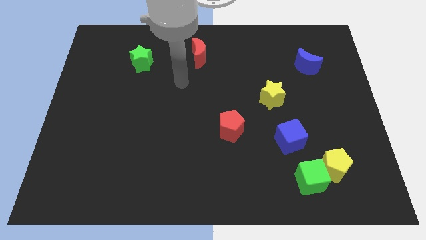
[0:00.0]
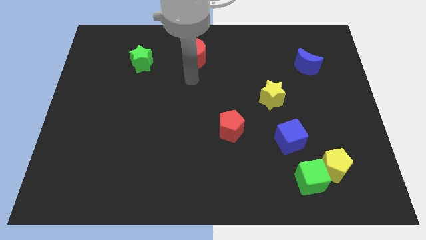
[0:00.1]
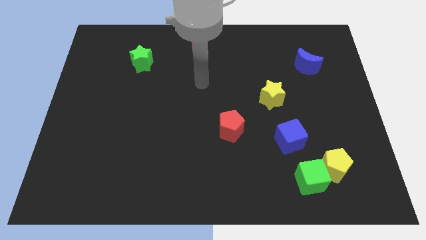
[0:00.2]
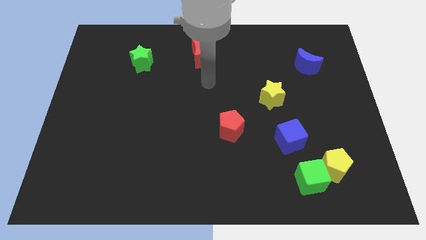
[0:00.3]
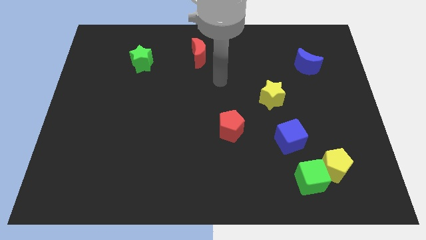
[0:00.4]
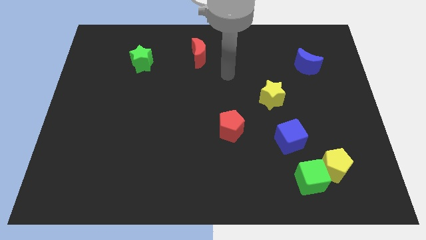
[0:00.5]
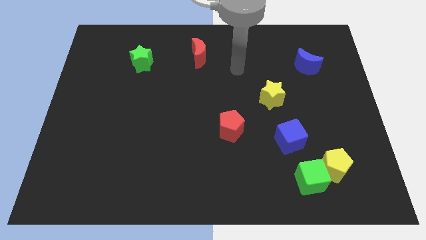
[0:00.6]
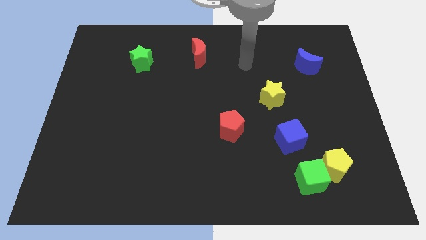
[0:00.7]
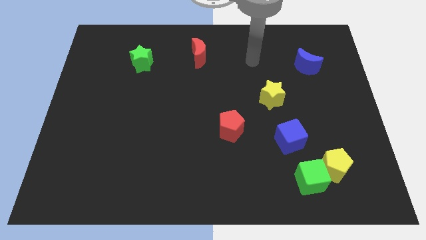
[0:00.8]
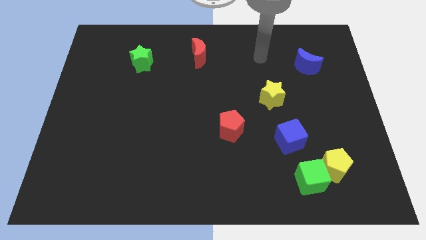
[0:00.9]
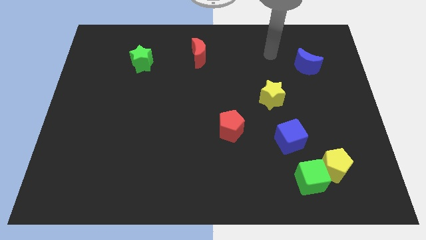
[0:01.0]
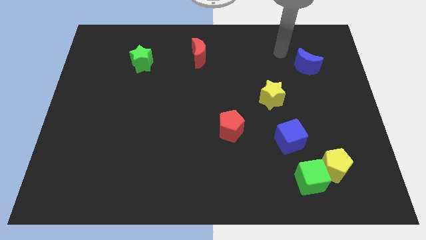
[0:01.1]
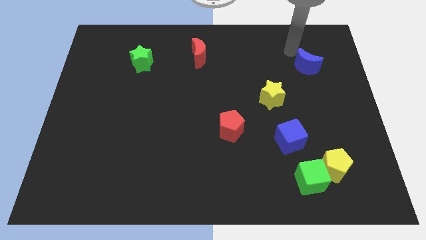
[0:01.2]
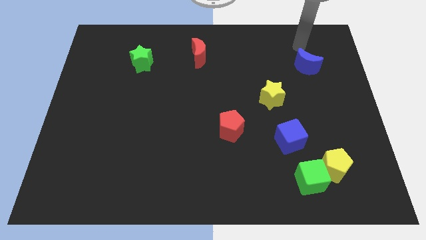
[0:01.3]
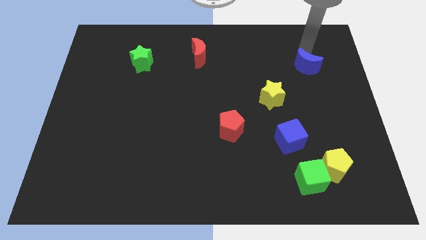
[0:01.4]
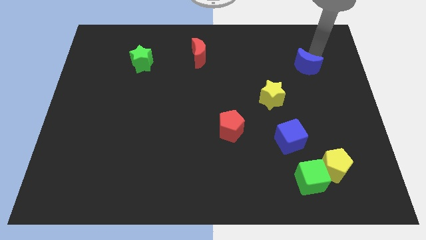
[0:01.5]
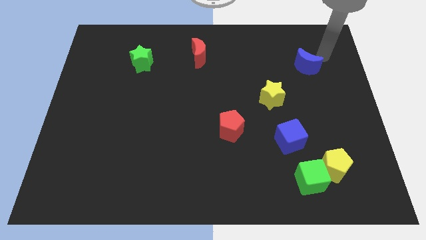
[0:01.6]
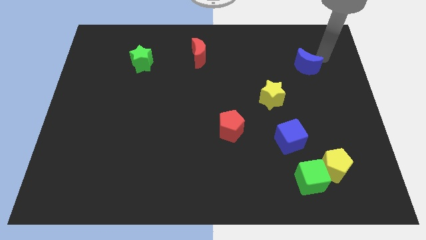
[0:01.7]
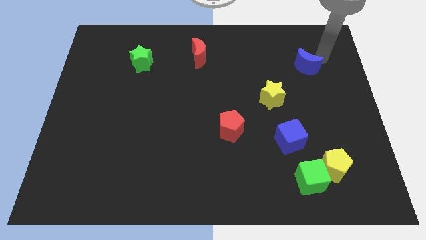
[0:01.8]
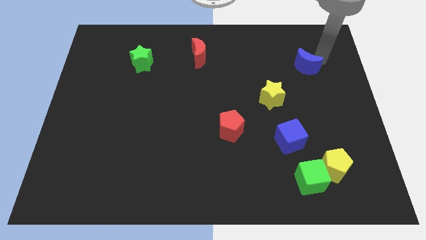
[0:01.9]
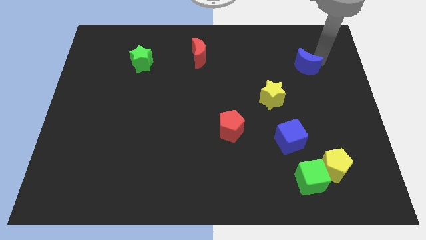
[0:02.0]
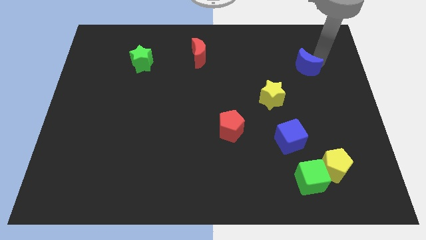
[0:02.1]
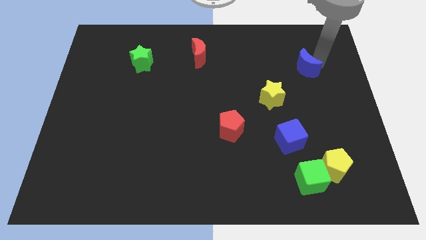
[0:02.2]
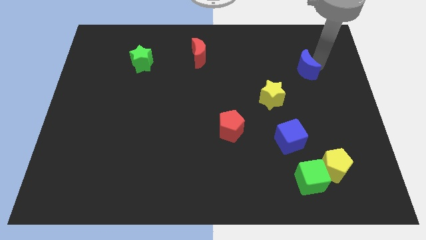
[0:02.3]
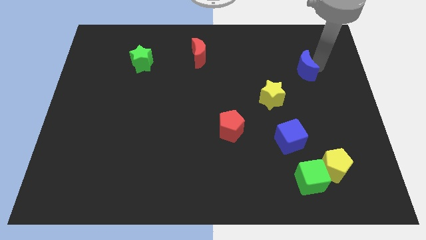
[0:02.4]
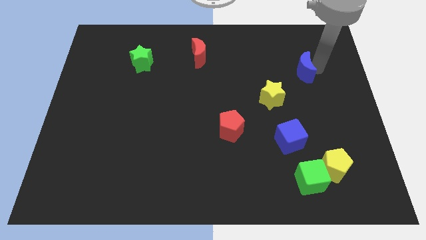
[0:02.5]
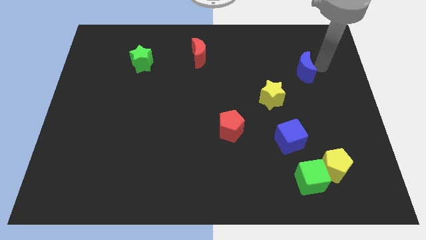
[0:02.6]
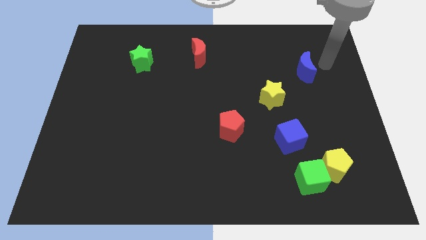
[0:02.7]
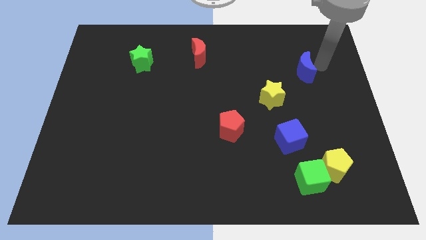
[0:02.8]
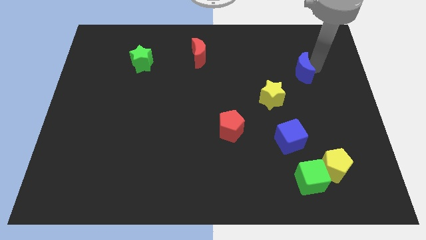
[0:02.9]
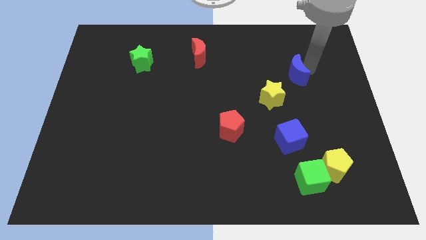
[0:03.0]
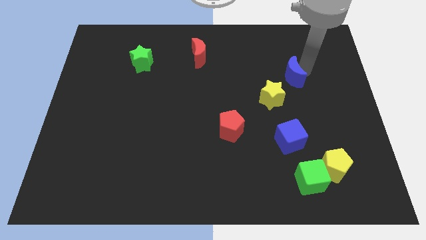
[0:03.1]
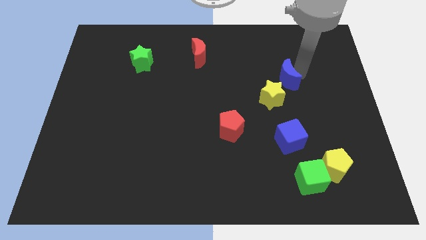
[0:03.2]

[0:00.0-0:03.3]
push the blue moon downwards and then to the left a little

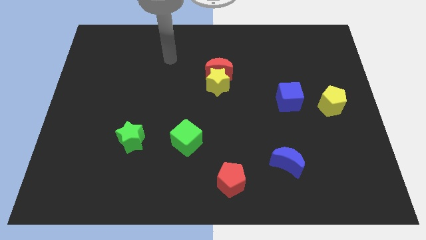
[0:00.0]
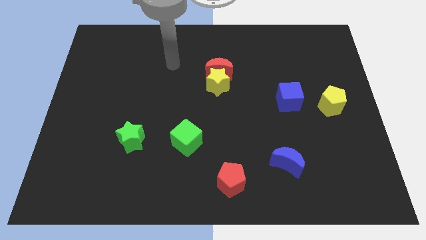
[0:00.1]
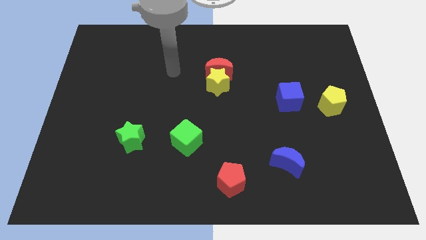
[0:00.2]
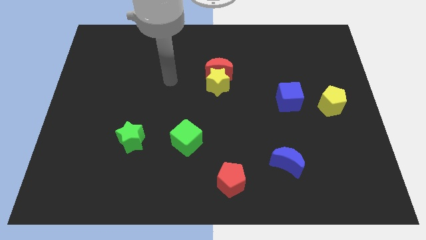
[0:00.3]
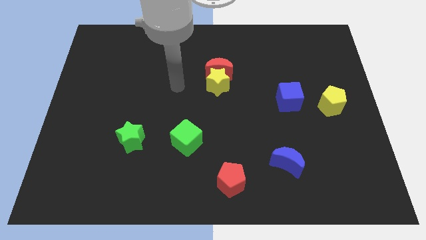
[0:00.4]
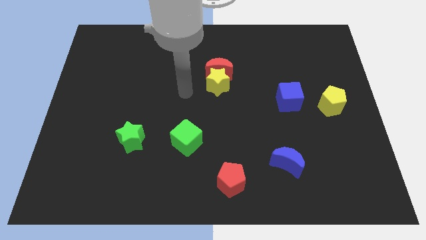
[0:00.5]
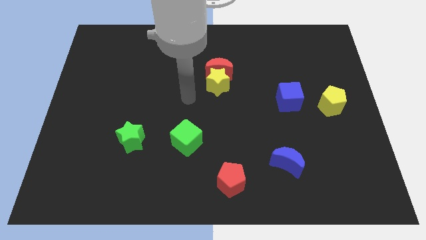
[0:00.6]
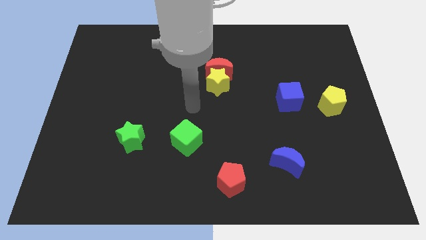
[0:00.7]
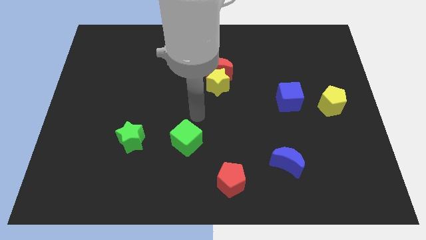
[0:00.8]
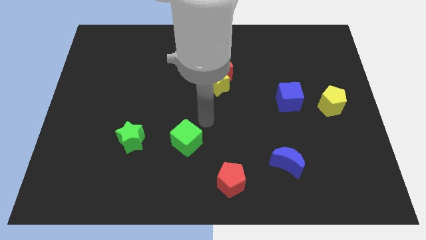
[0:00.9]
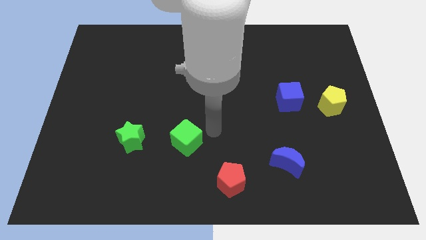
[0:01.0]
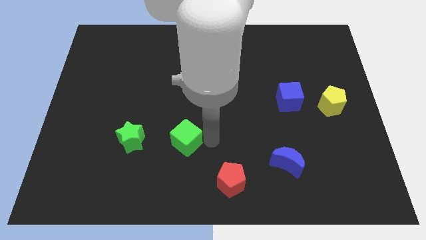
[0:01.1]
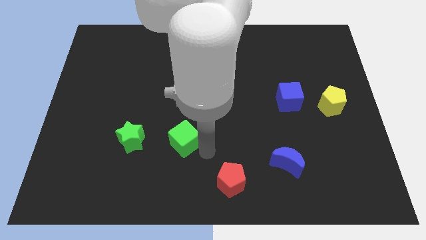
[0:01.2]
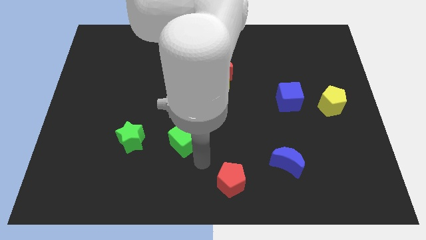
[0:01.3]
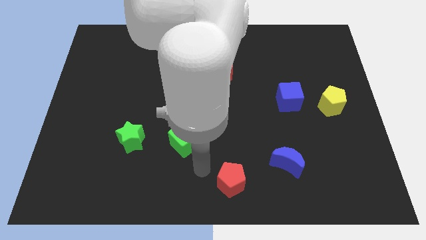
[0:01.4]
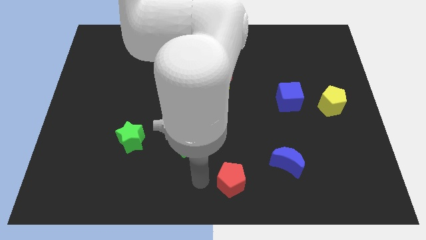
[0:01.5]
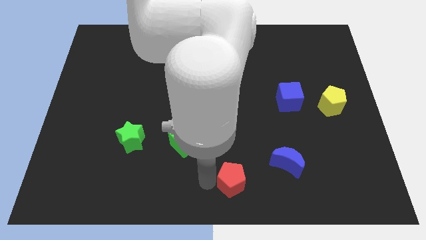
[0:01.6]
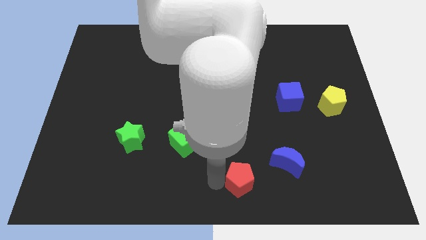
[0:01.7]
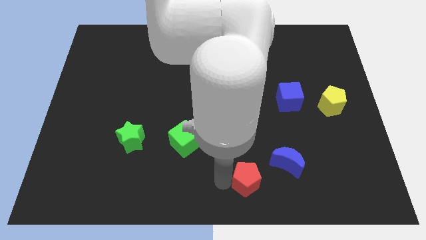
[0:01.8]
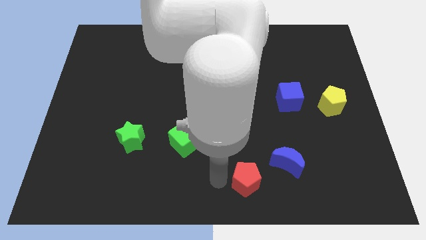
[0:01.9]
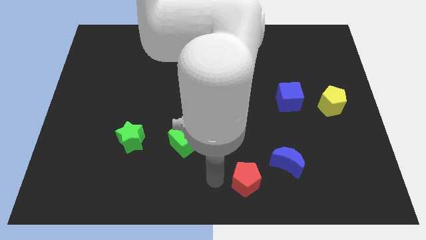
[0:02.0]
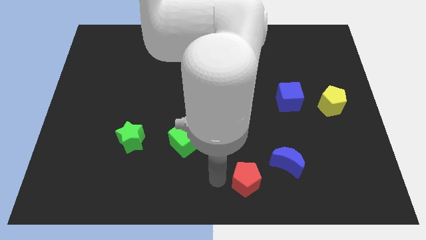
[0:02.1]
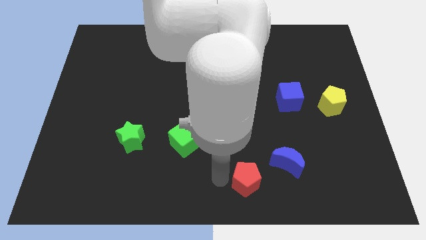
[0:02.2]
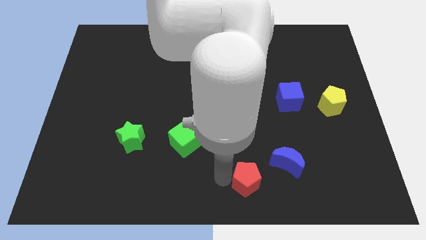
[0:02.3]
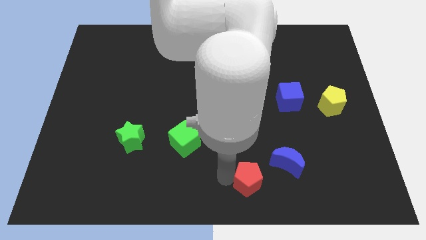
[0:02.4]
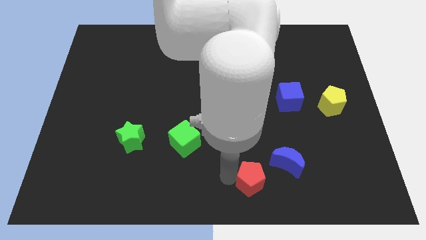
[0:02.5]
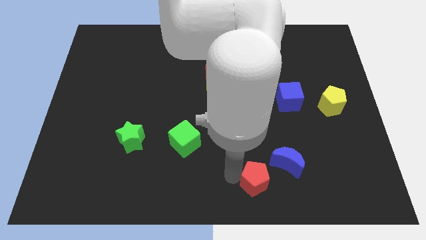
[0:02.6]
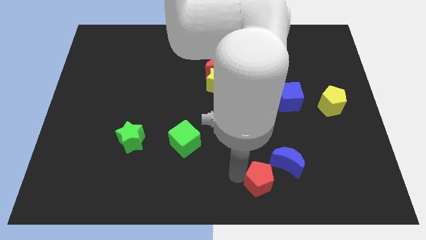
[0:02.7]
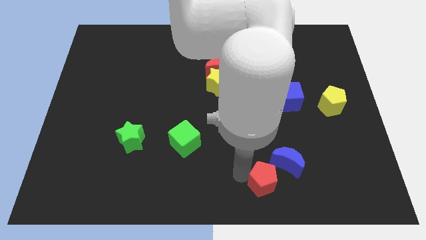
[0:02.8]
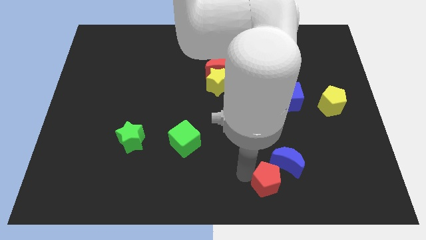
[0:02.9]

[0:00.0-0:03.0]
push the red pentagon right slightly

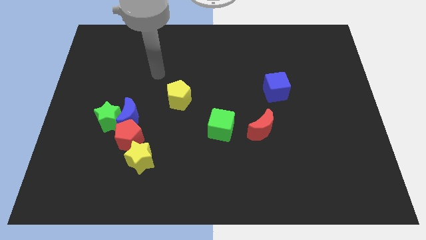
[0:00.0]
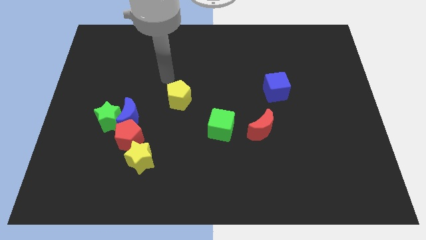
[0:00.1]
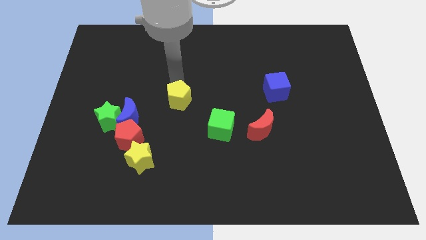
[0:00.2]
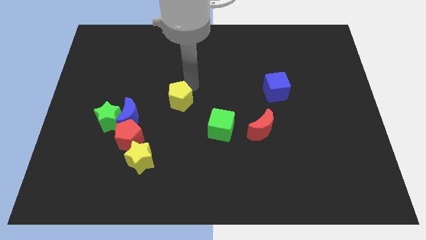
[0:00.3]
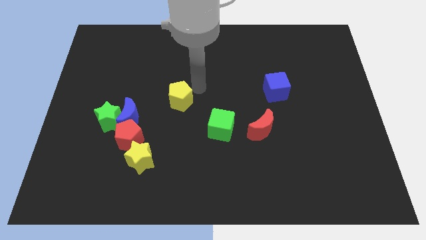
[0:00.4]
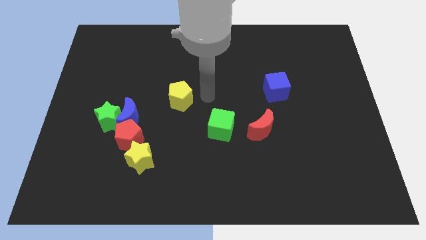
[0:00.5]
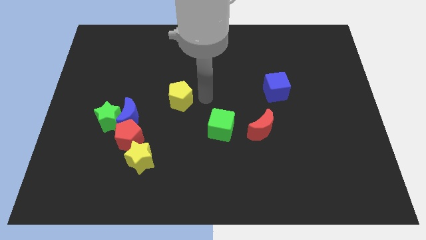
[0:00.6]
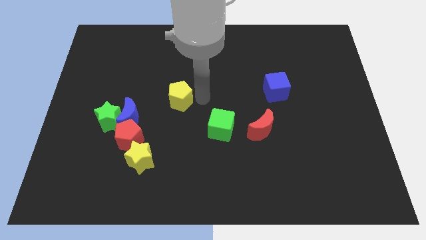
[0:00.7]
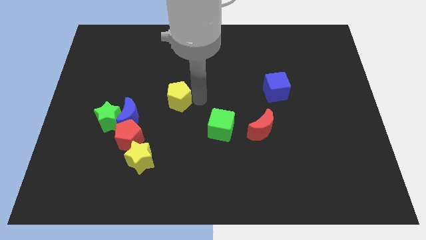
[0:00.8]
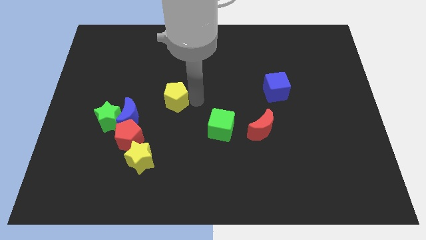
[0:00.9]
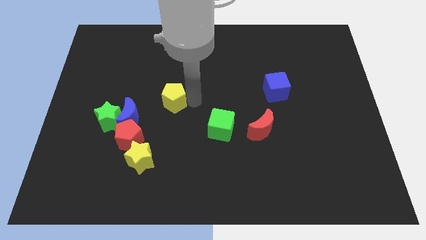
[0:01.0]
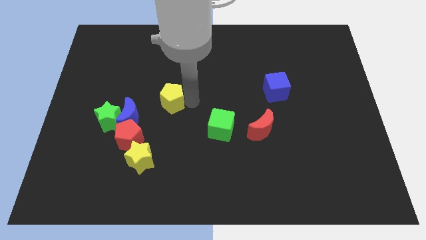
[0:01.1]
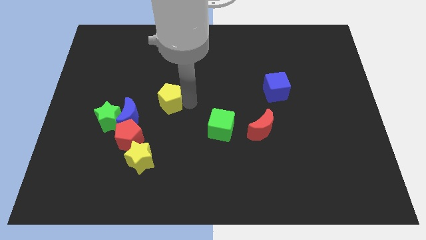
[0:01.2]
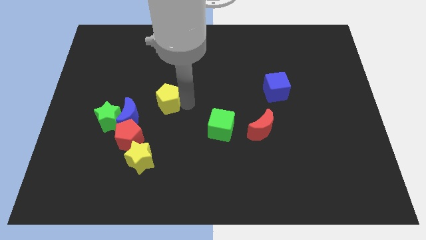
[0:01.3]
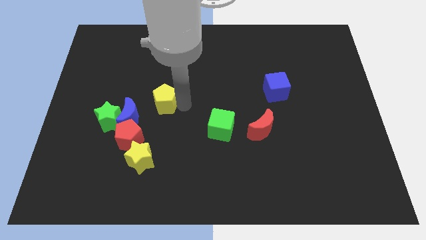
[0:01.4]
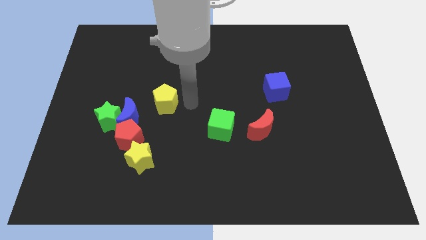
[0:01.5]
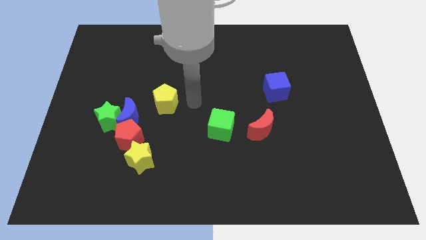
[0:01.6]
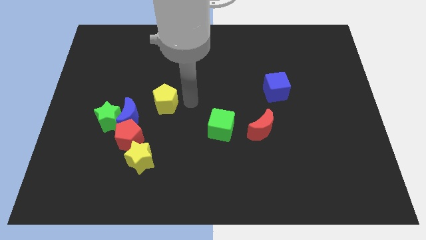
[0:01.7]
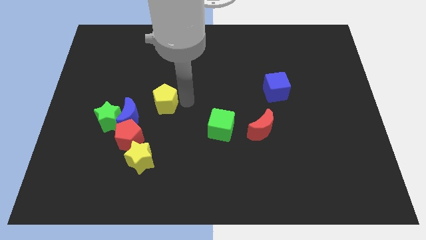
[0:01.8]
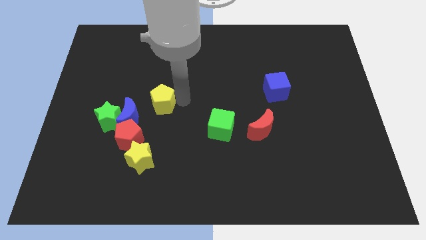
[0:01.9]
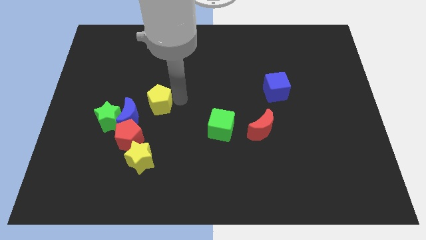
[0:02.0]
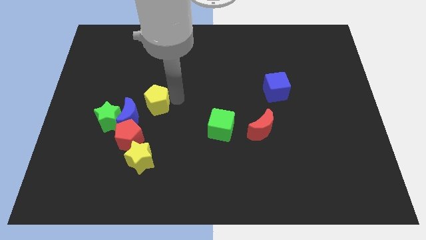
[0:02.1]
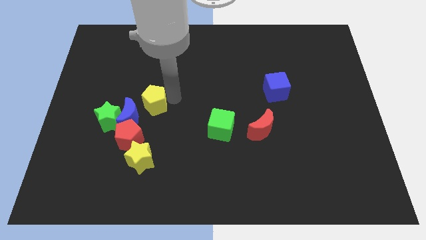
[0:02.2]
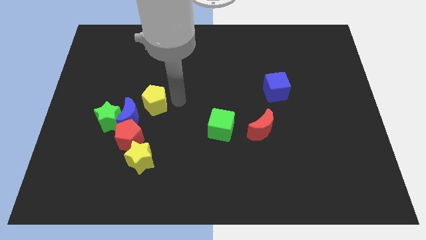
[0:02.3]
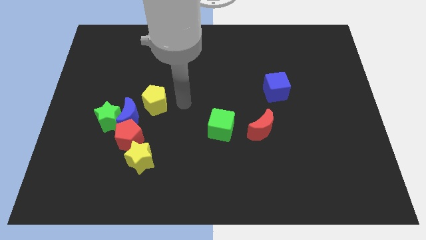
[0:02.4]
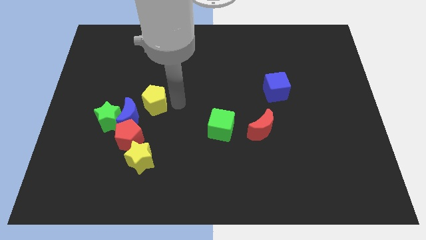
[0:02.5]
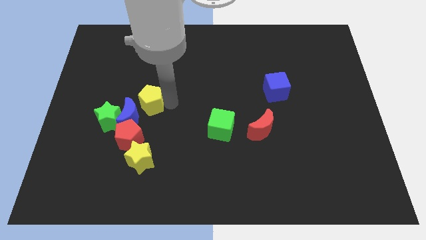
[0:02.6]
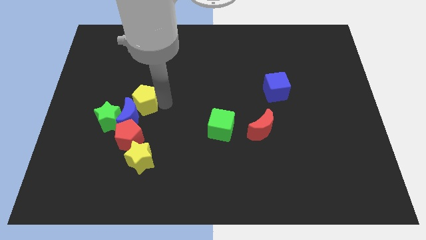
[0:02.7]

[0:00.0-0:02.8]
move the yellow pentagon somewhat left
